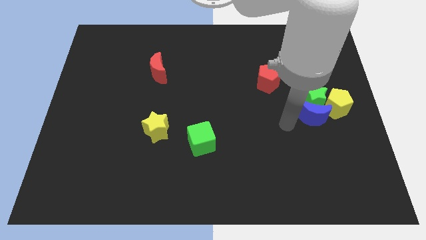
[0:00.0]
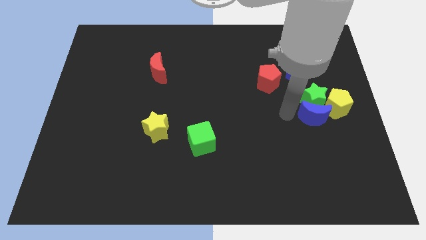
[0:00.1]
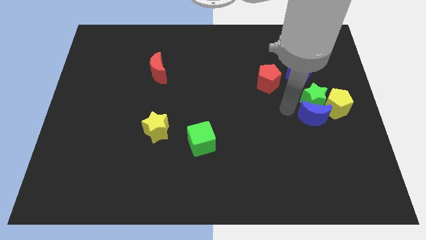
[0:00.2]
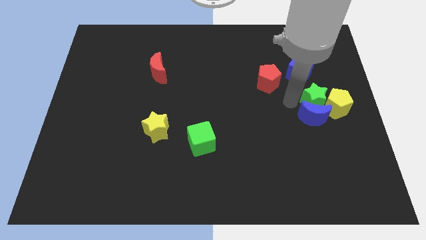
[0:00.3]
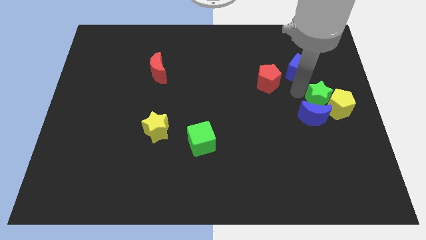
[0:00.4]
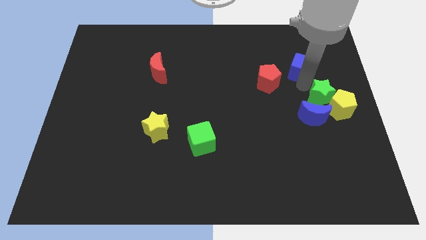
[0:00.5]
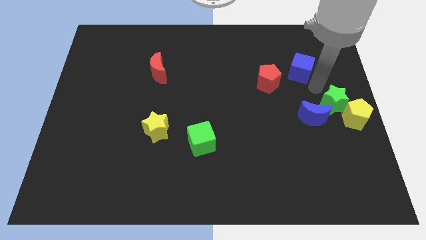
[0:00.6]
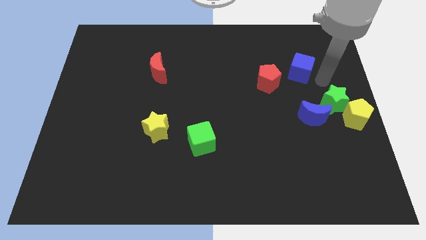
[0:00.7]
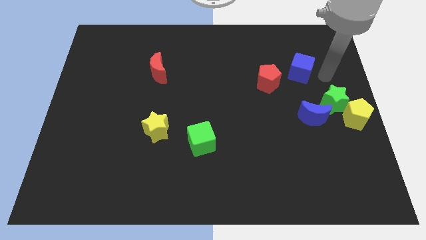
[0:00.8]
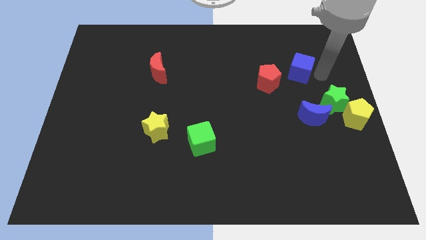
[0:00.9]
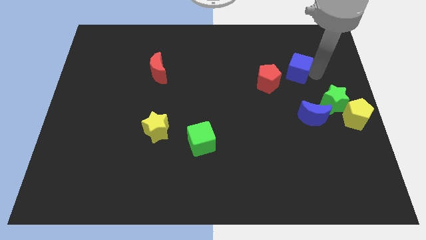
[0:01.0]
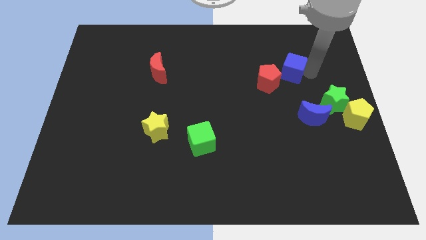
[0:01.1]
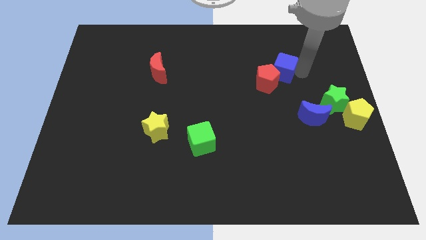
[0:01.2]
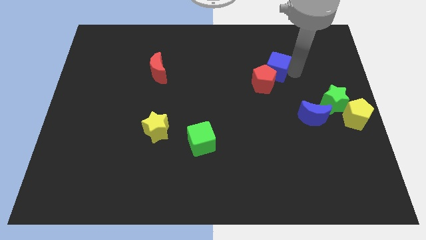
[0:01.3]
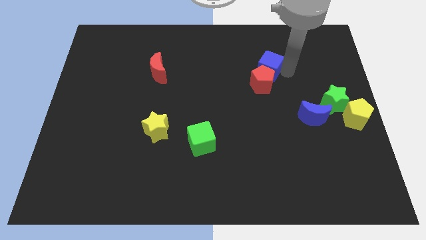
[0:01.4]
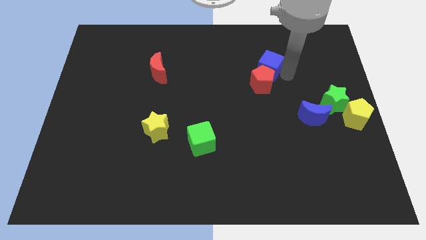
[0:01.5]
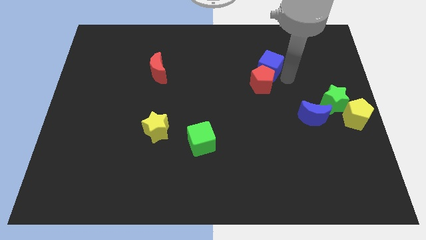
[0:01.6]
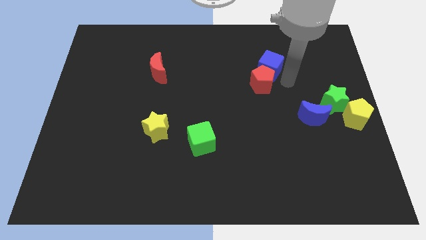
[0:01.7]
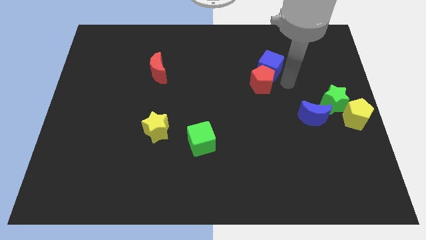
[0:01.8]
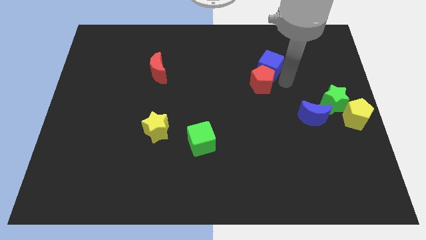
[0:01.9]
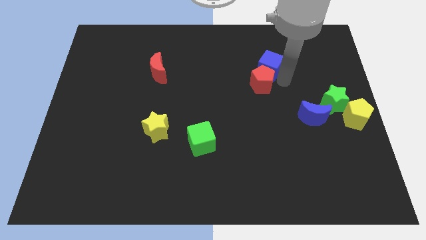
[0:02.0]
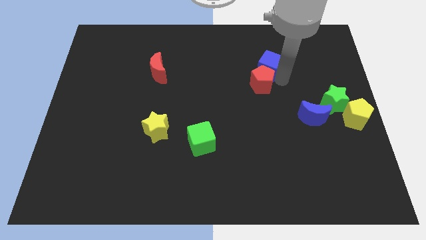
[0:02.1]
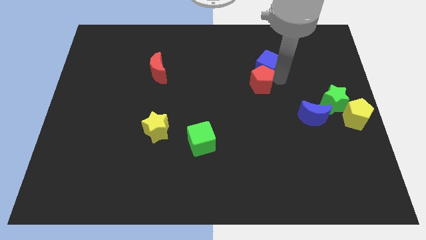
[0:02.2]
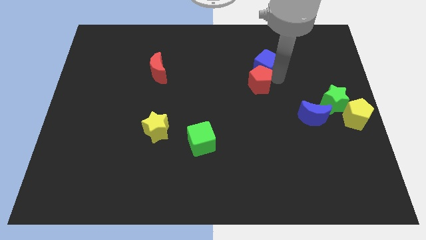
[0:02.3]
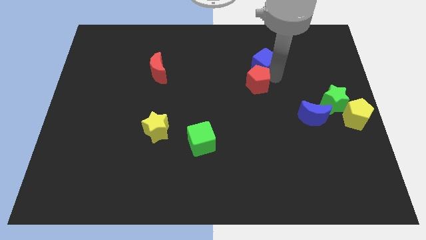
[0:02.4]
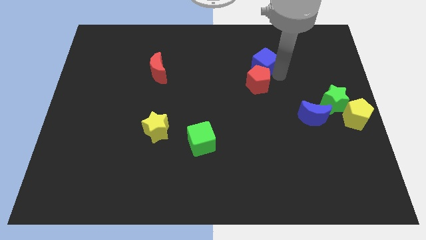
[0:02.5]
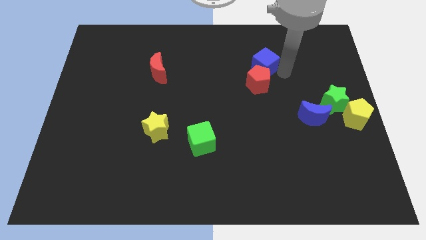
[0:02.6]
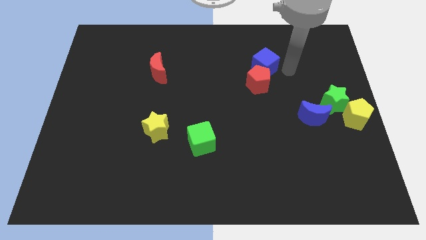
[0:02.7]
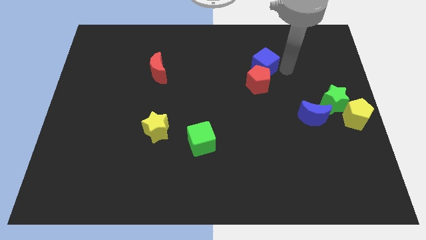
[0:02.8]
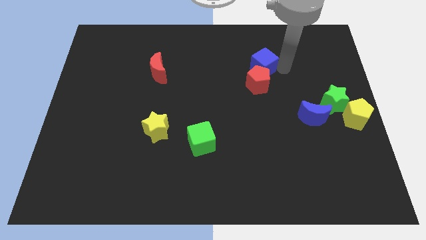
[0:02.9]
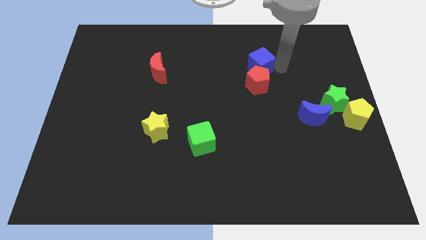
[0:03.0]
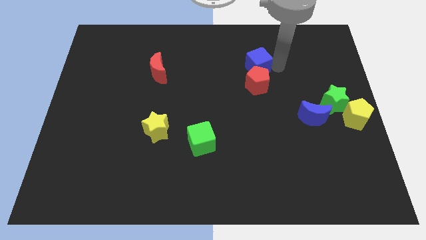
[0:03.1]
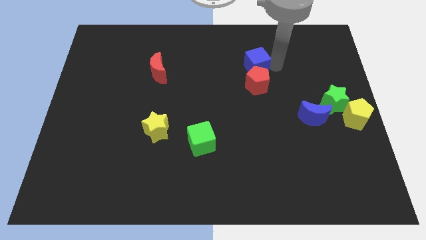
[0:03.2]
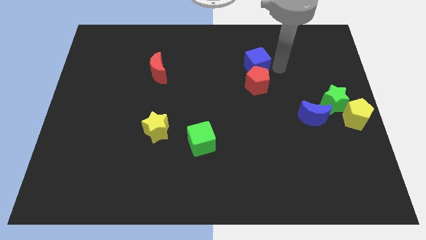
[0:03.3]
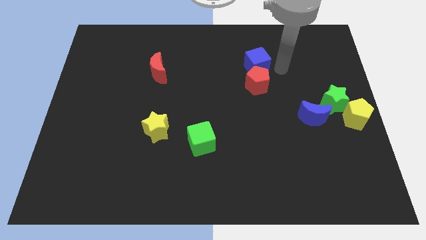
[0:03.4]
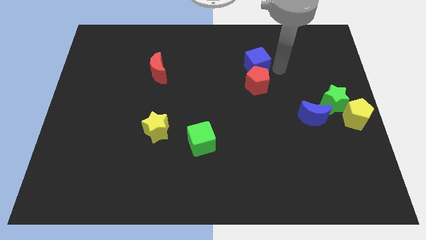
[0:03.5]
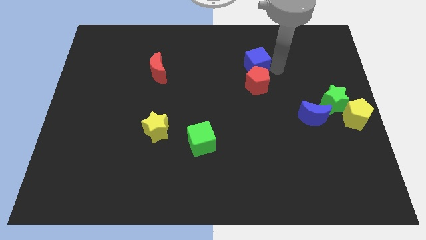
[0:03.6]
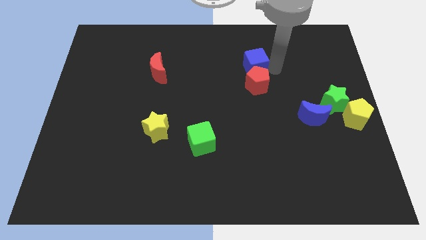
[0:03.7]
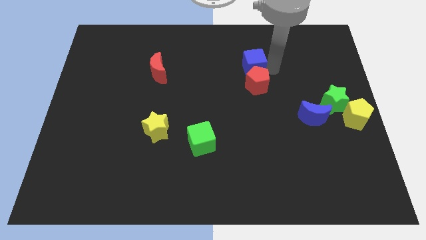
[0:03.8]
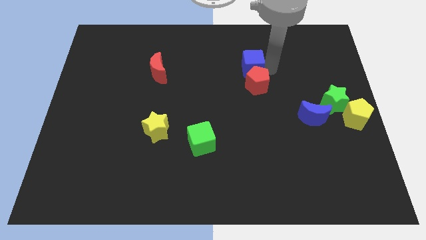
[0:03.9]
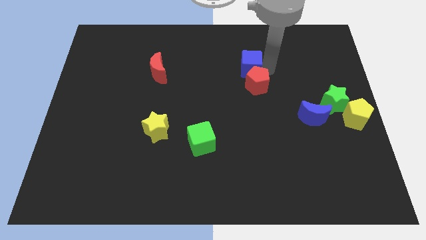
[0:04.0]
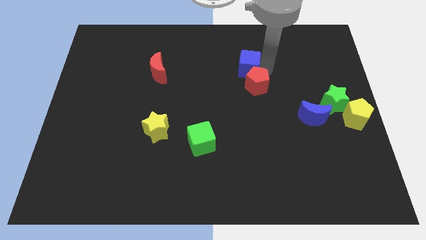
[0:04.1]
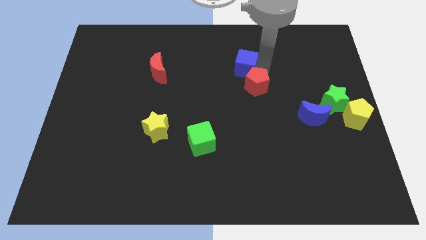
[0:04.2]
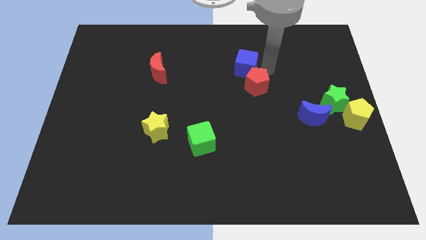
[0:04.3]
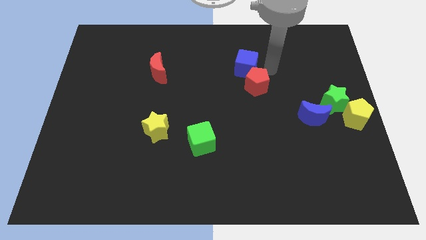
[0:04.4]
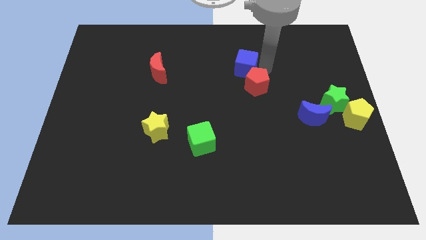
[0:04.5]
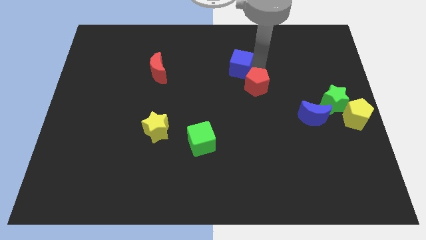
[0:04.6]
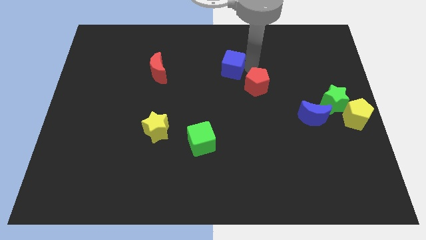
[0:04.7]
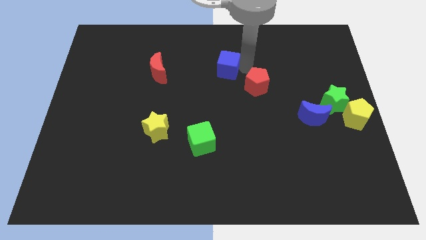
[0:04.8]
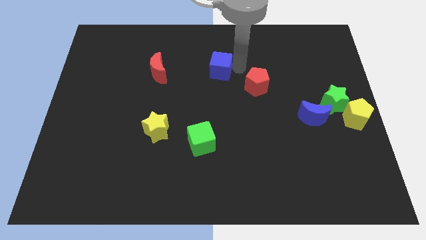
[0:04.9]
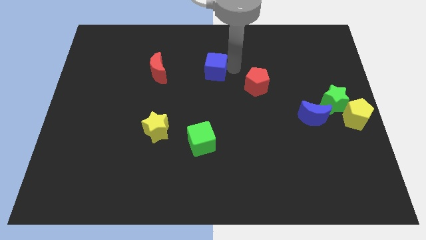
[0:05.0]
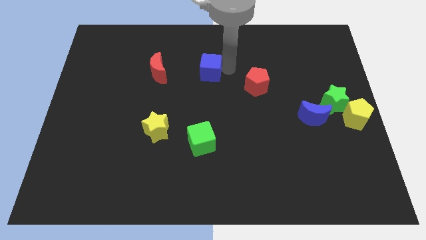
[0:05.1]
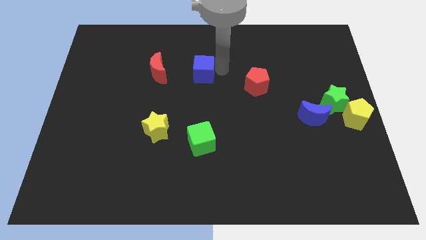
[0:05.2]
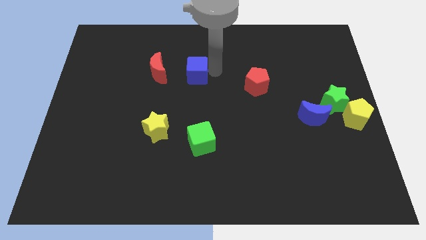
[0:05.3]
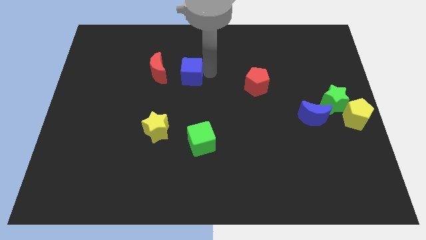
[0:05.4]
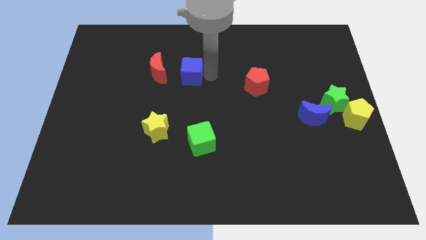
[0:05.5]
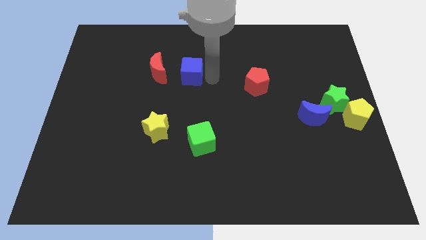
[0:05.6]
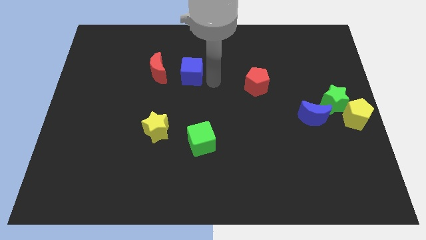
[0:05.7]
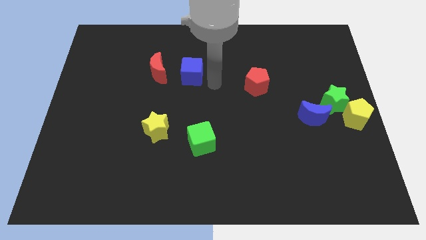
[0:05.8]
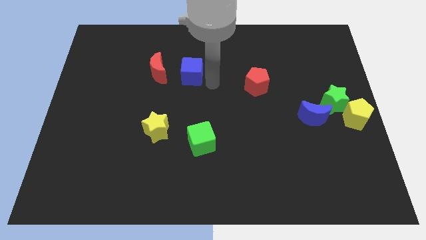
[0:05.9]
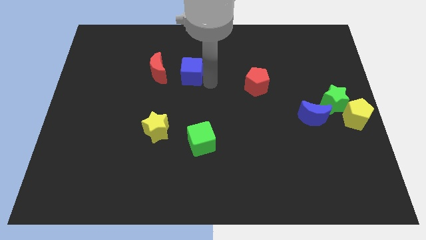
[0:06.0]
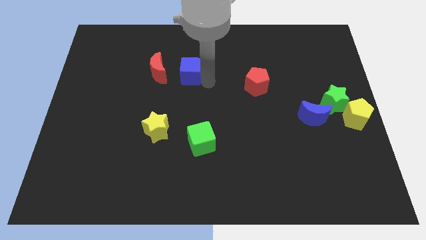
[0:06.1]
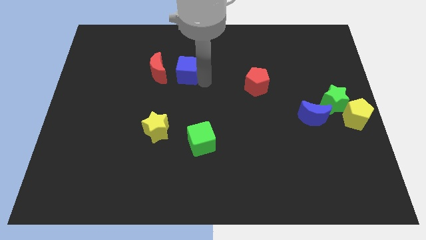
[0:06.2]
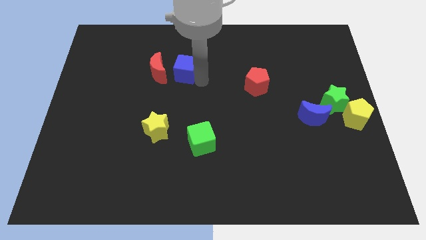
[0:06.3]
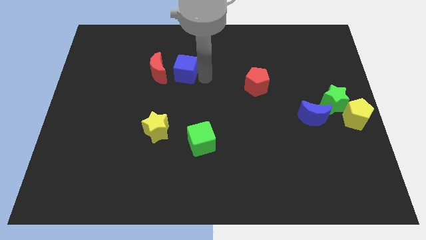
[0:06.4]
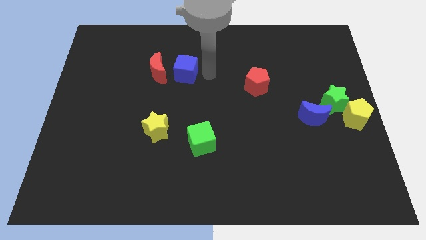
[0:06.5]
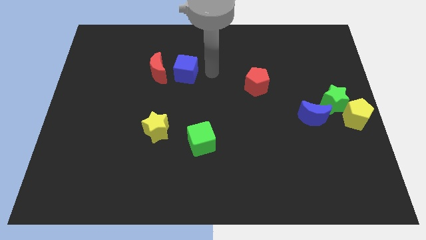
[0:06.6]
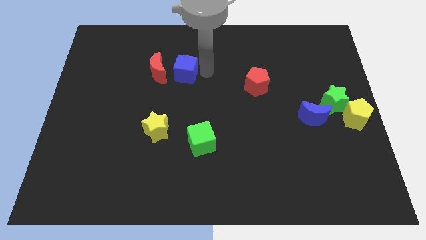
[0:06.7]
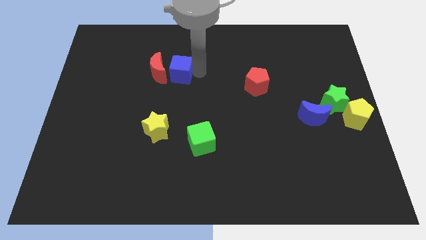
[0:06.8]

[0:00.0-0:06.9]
slide the blue cube towards the red moon
